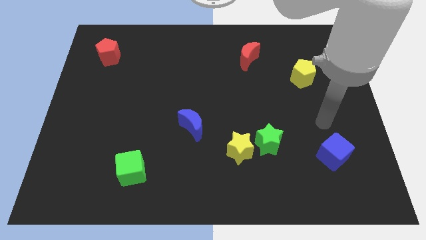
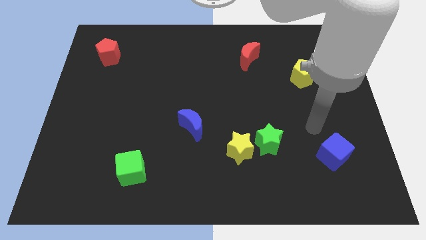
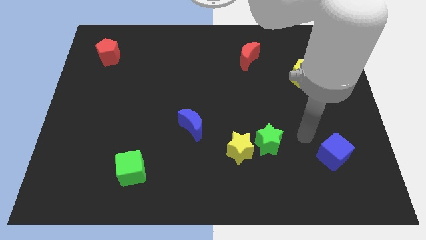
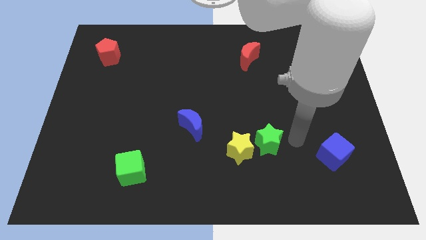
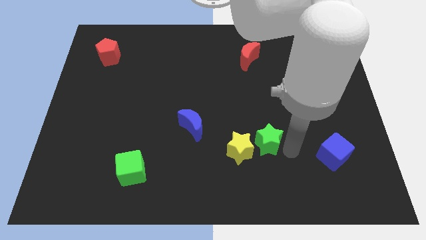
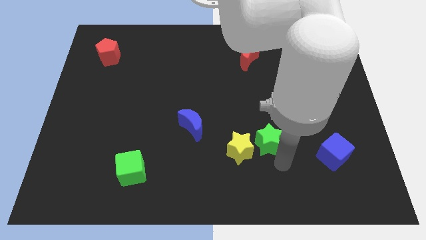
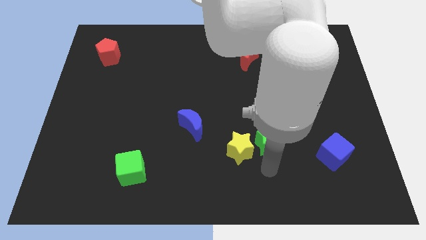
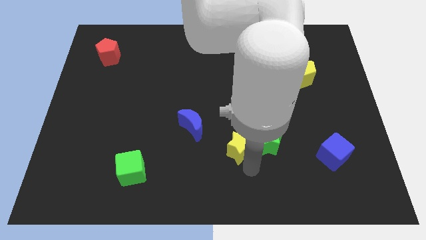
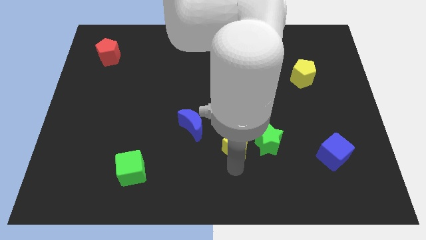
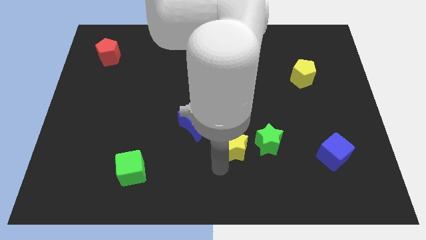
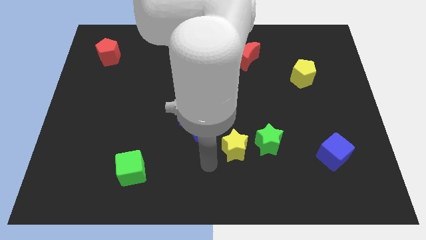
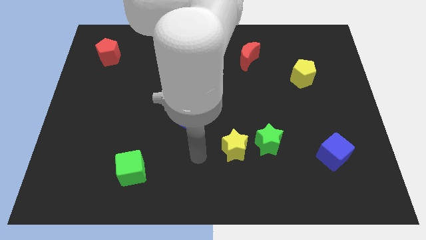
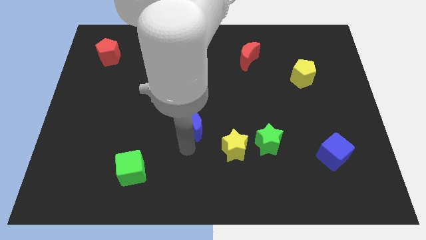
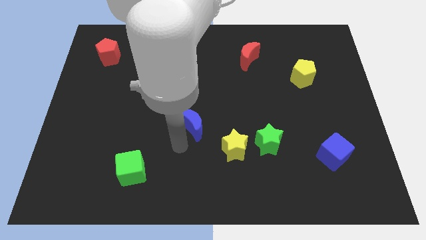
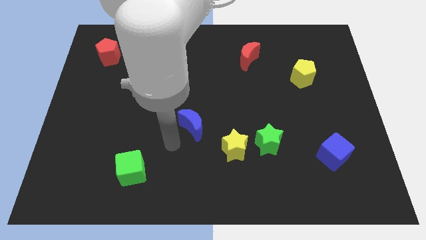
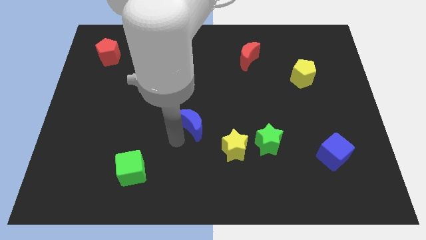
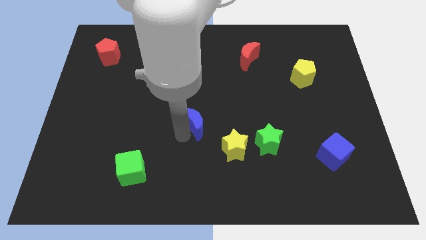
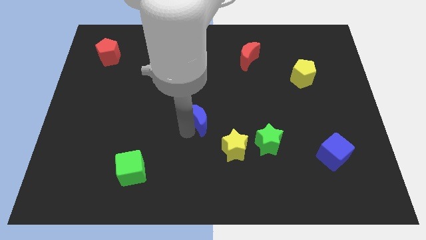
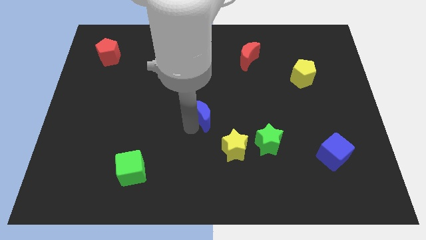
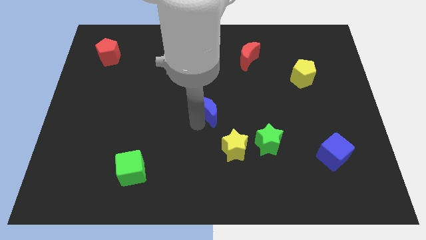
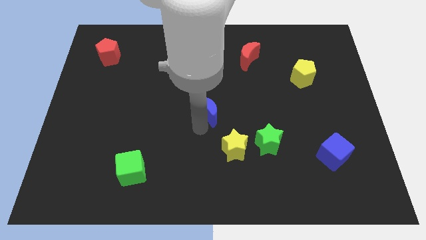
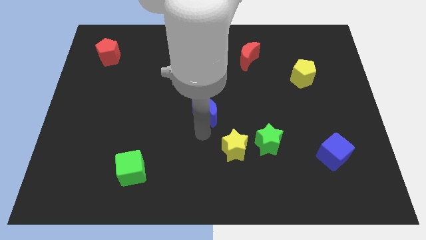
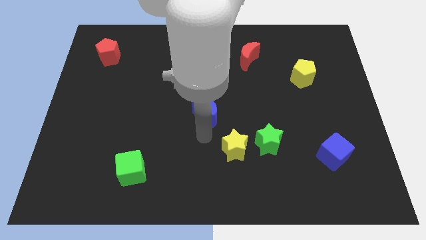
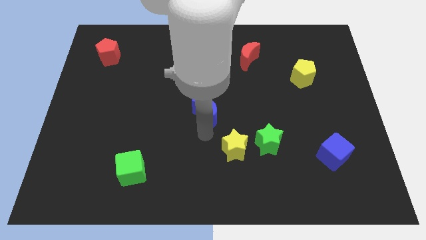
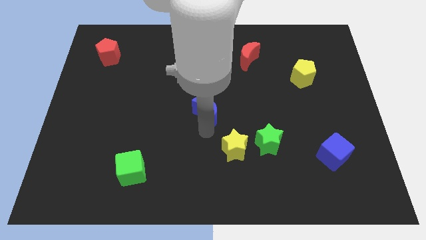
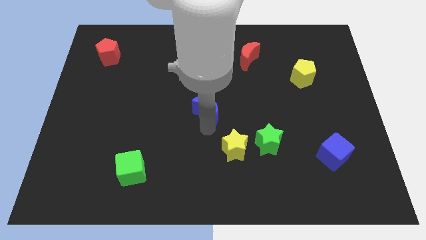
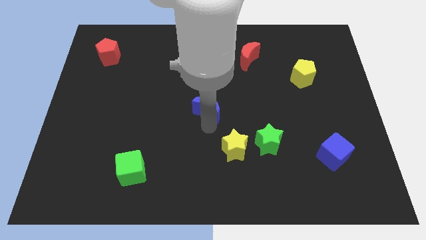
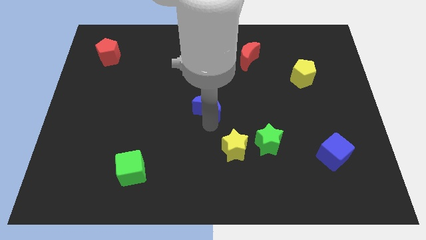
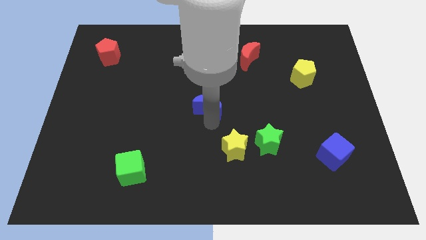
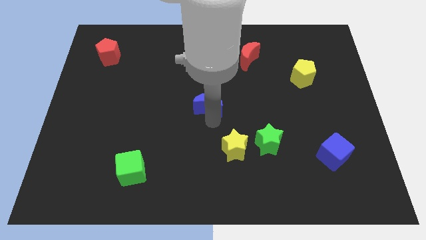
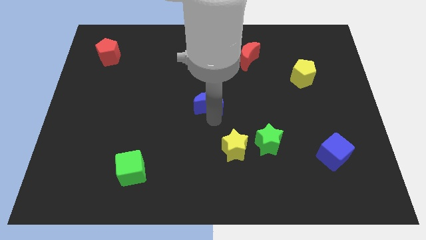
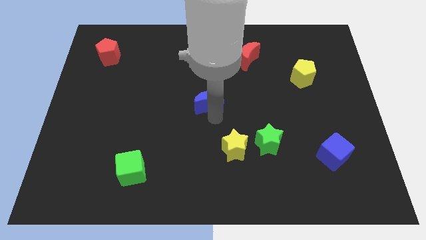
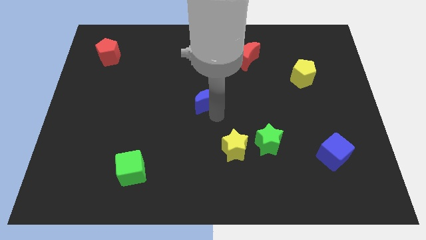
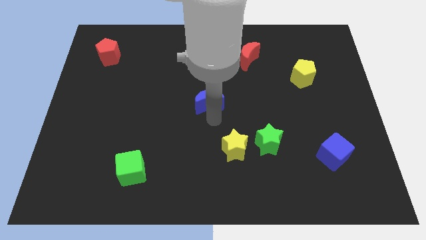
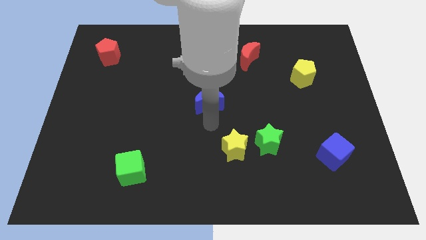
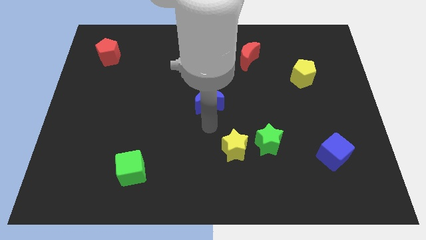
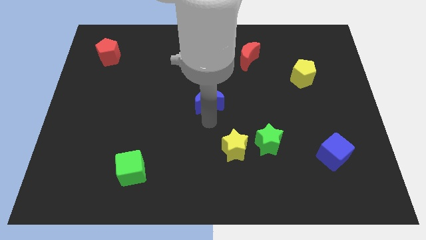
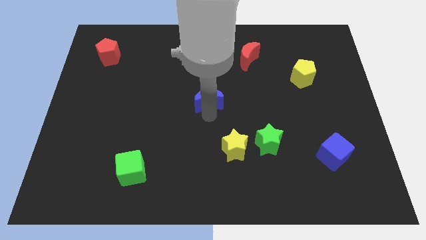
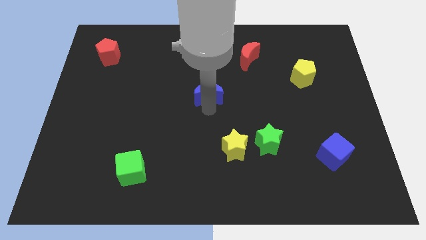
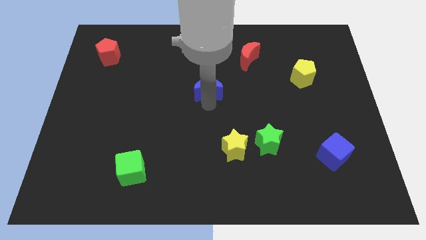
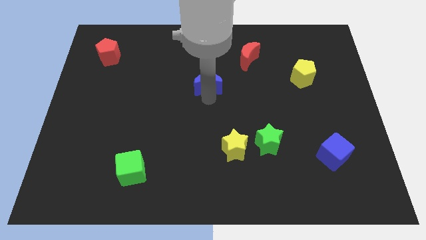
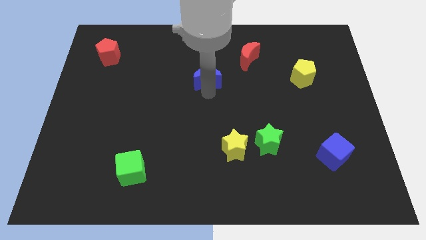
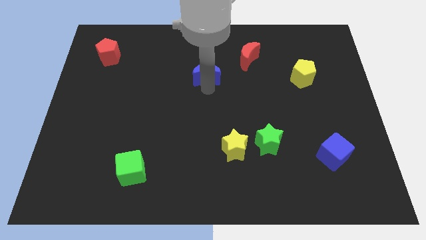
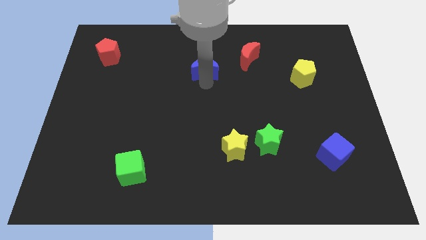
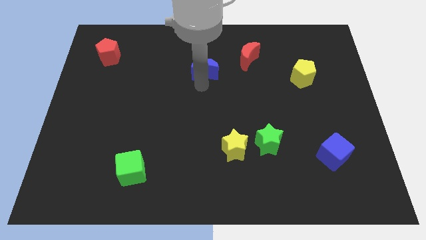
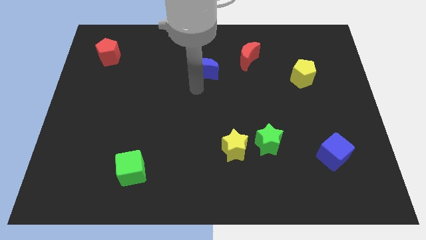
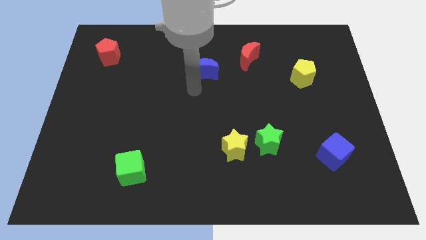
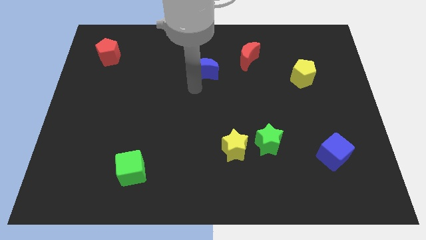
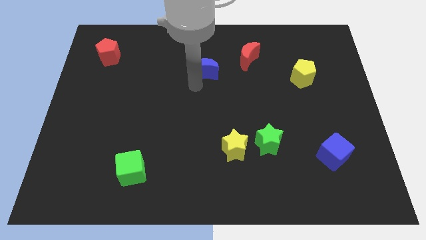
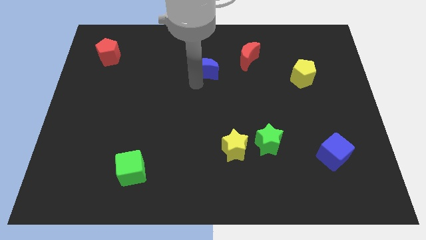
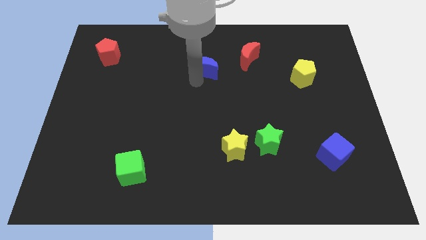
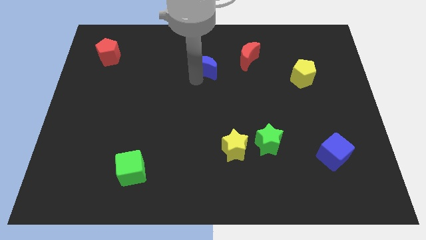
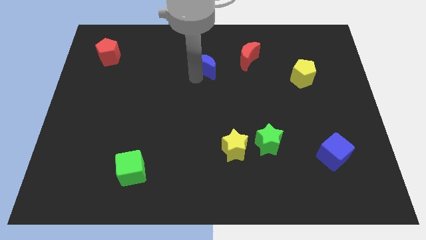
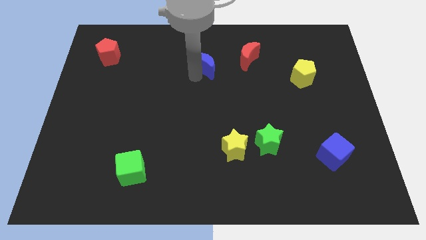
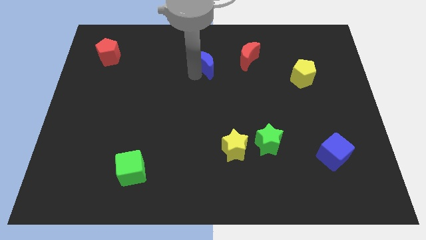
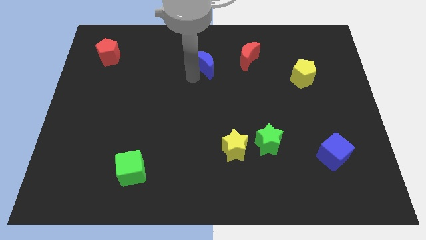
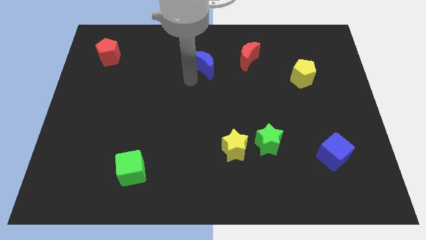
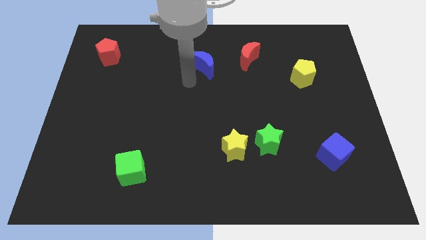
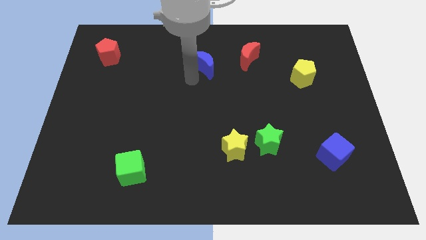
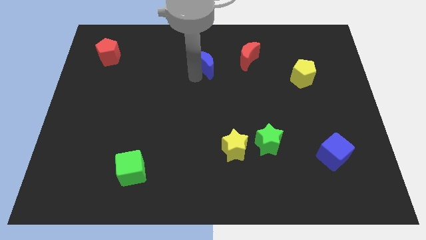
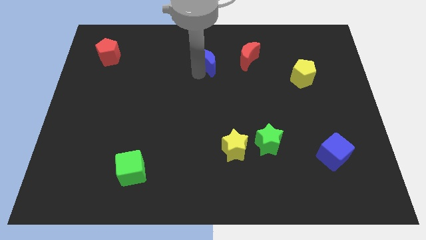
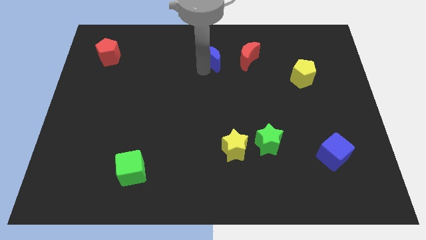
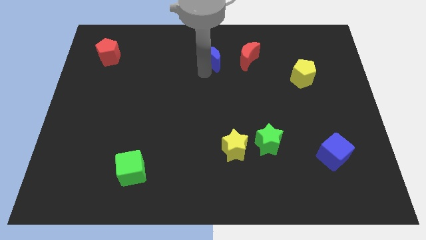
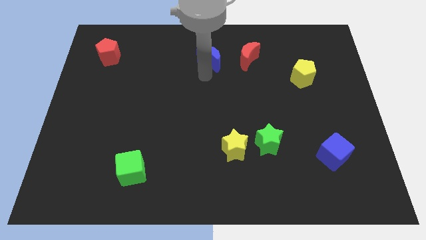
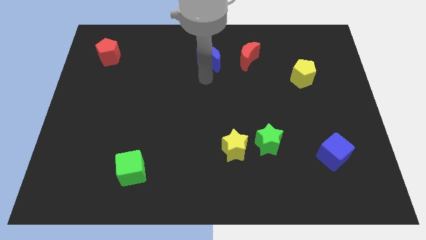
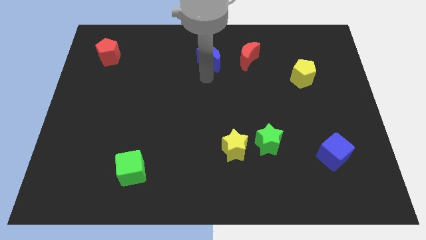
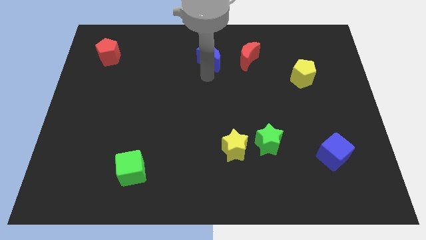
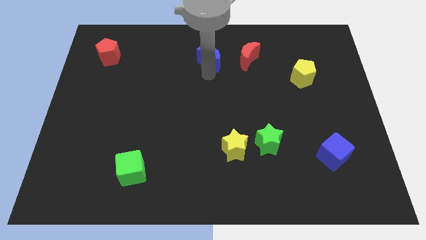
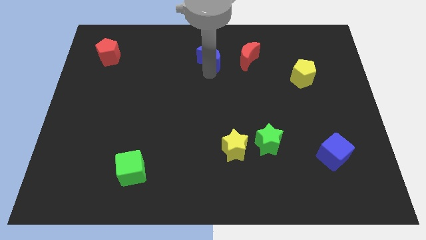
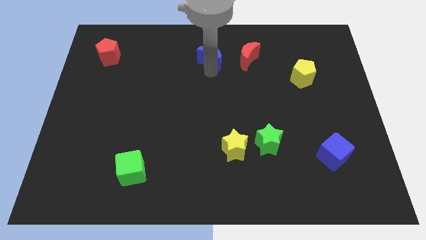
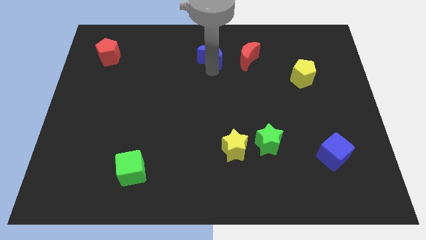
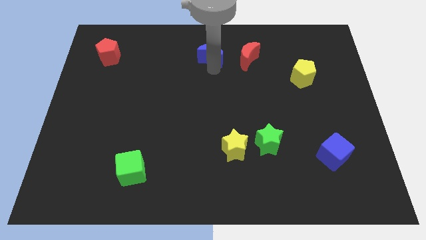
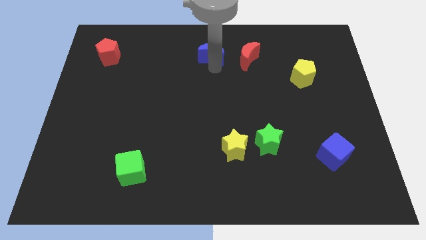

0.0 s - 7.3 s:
move the blue moon to the top side
